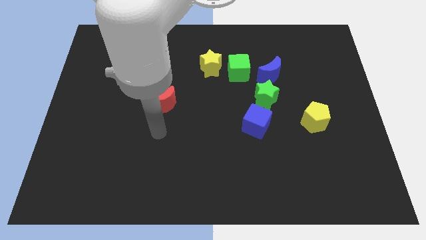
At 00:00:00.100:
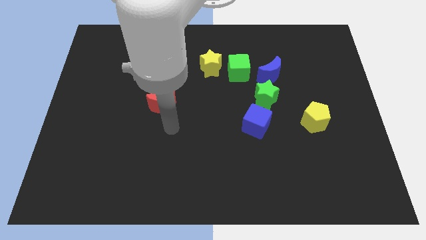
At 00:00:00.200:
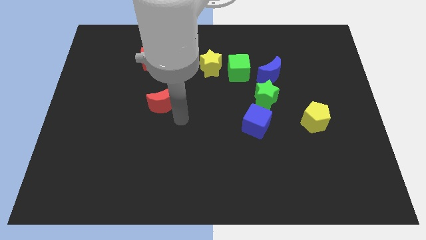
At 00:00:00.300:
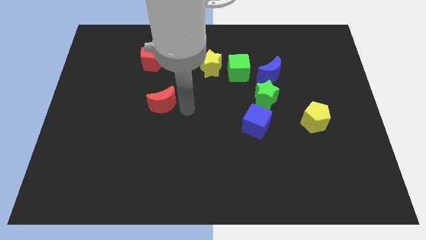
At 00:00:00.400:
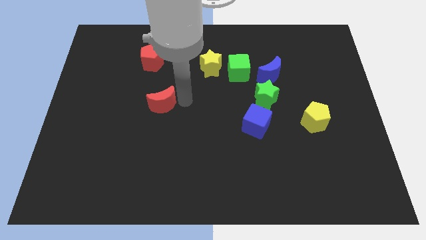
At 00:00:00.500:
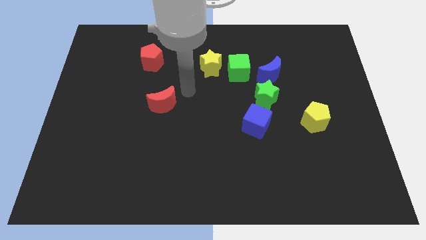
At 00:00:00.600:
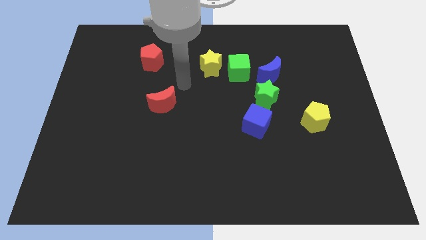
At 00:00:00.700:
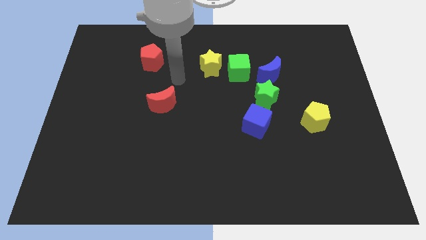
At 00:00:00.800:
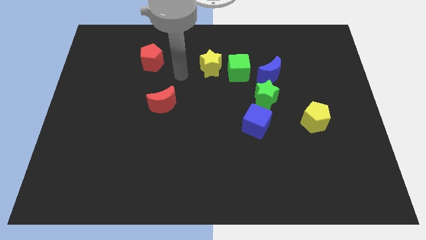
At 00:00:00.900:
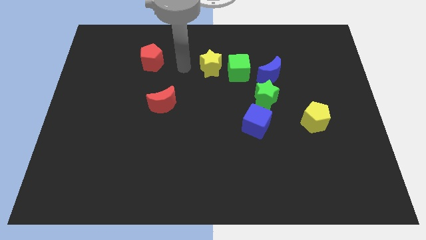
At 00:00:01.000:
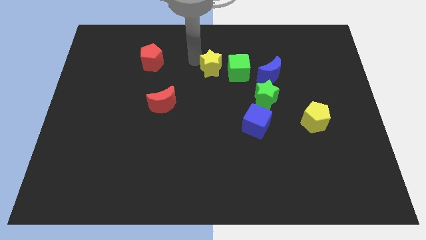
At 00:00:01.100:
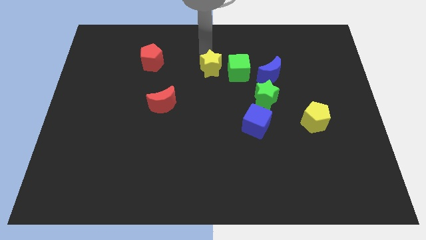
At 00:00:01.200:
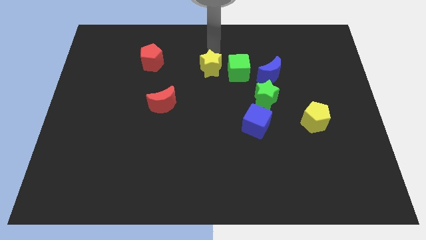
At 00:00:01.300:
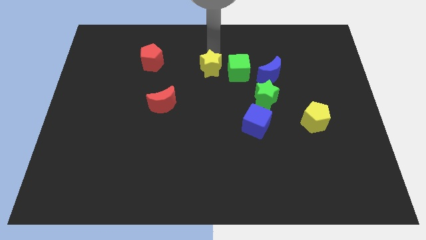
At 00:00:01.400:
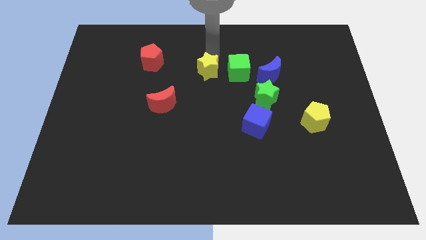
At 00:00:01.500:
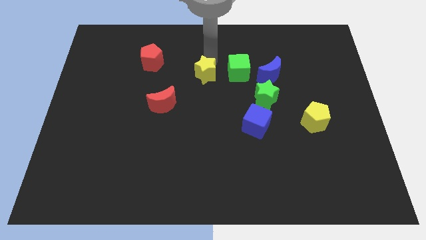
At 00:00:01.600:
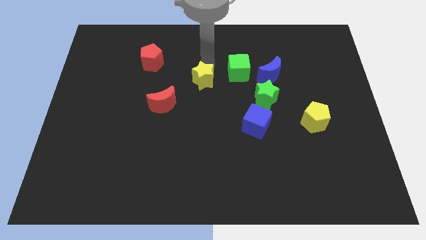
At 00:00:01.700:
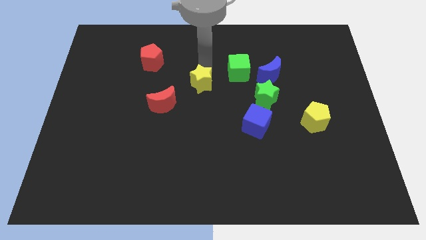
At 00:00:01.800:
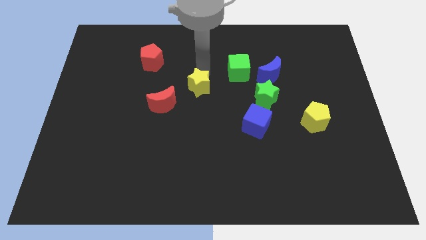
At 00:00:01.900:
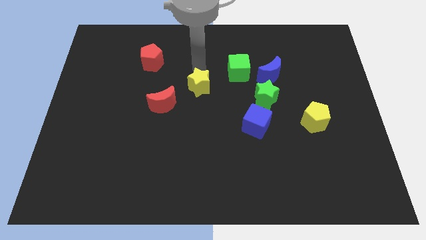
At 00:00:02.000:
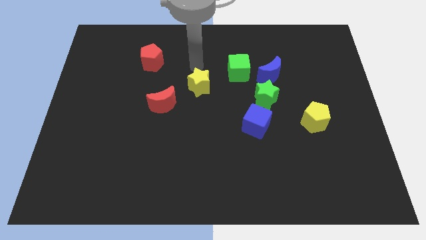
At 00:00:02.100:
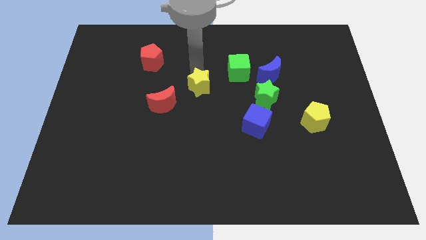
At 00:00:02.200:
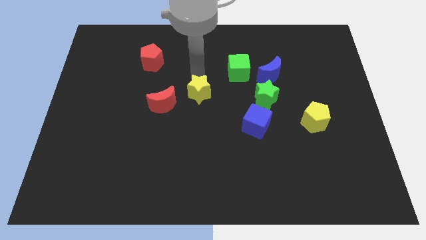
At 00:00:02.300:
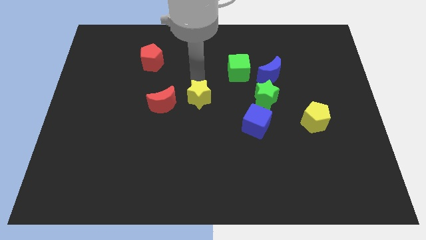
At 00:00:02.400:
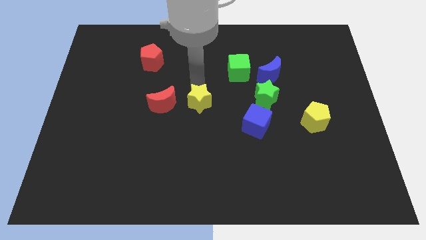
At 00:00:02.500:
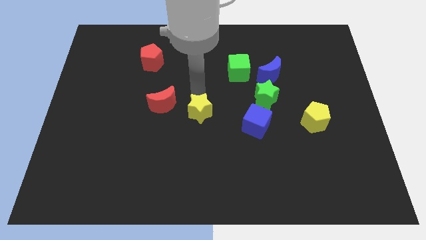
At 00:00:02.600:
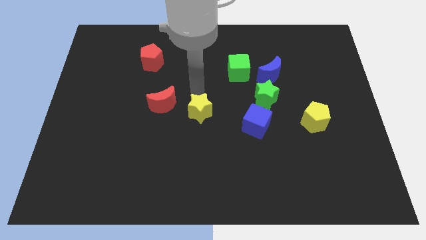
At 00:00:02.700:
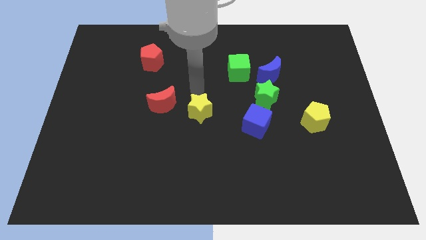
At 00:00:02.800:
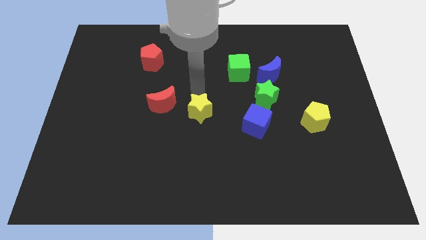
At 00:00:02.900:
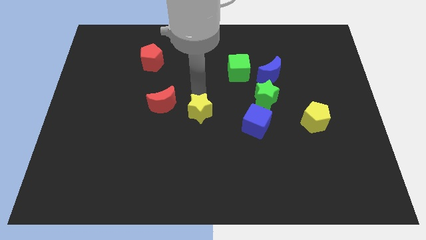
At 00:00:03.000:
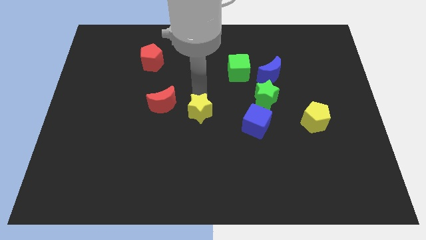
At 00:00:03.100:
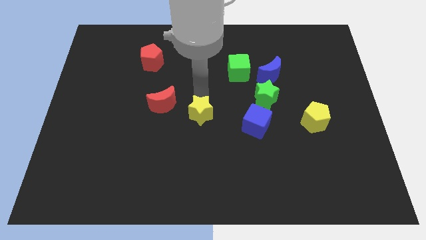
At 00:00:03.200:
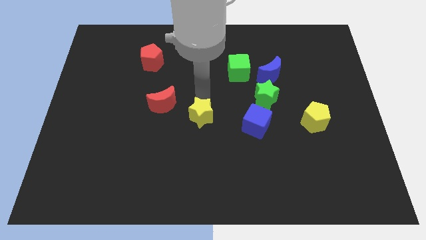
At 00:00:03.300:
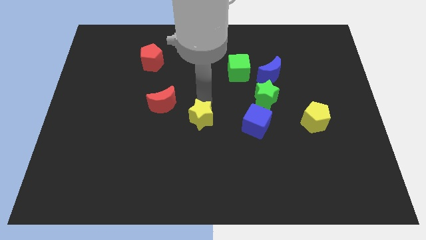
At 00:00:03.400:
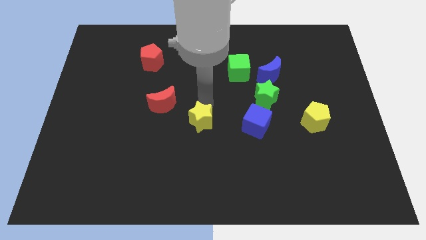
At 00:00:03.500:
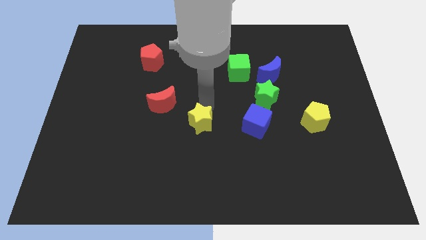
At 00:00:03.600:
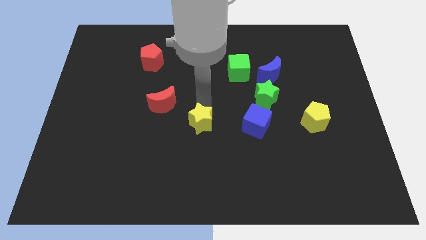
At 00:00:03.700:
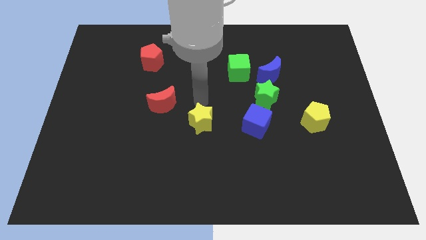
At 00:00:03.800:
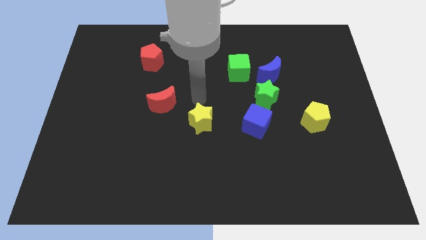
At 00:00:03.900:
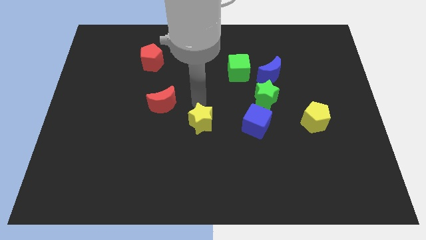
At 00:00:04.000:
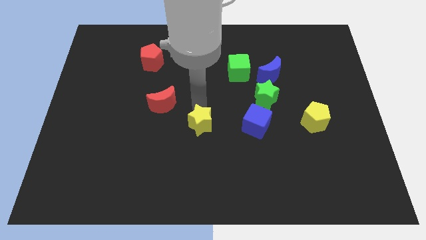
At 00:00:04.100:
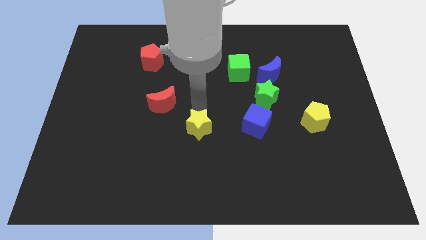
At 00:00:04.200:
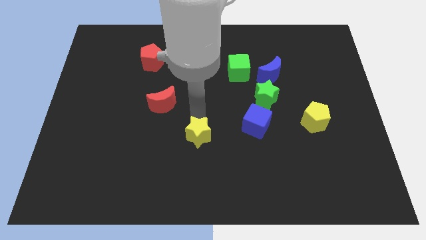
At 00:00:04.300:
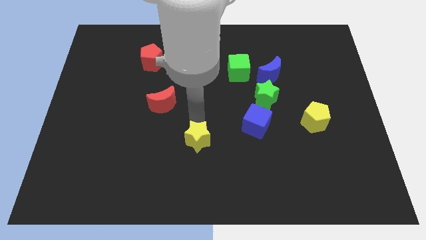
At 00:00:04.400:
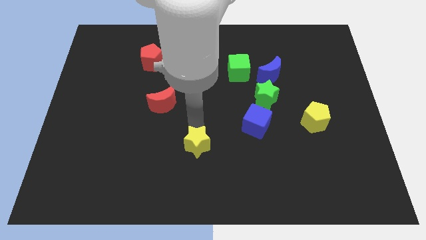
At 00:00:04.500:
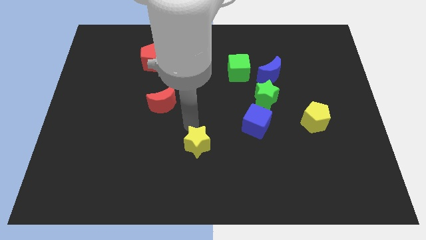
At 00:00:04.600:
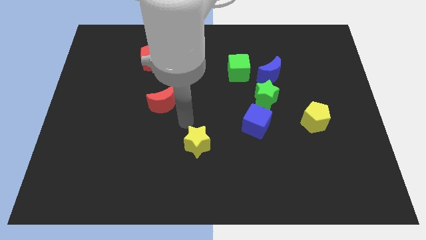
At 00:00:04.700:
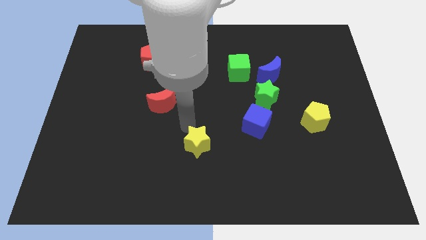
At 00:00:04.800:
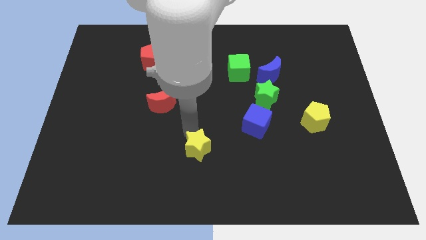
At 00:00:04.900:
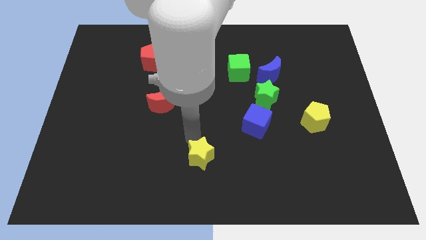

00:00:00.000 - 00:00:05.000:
push the yellow star to the bottom side

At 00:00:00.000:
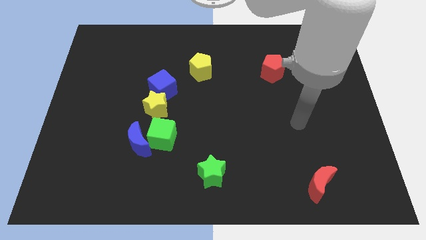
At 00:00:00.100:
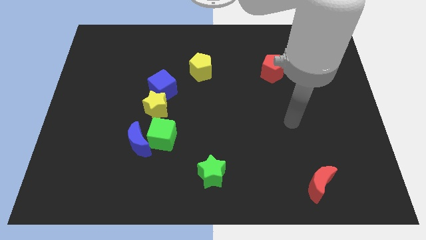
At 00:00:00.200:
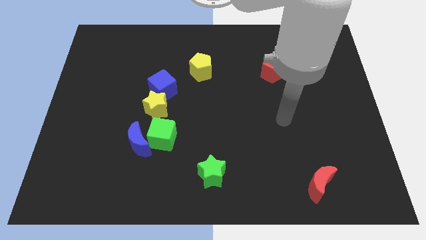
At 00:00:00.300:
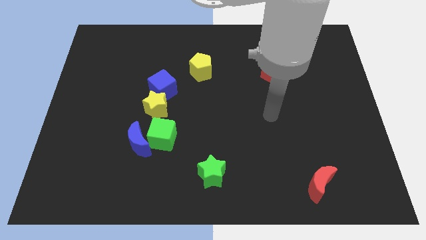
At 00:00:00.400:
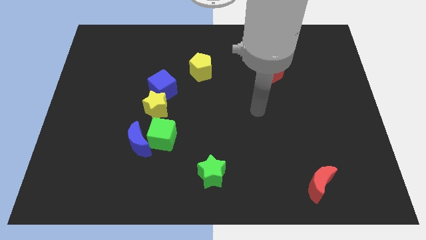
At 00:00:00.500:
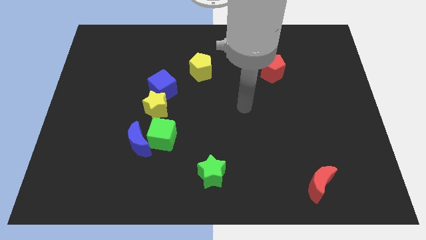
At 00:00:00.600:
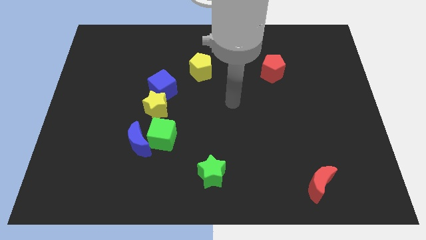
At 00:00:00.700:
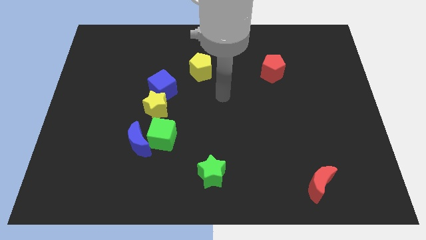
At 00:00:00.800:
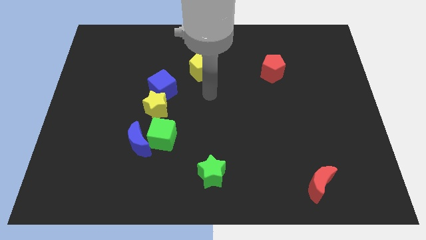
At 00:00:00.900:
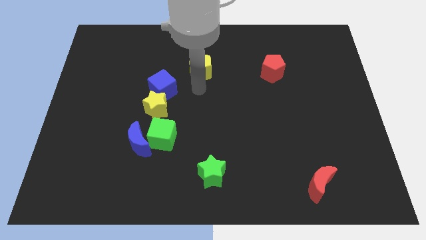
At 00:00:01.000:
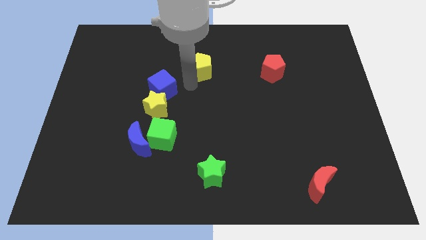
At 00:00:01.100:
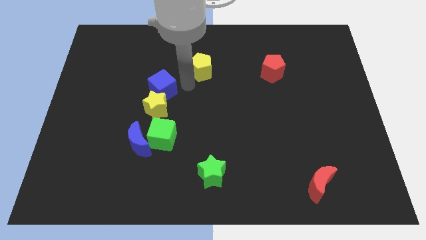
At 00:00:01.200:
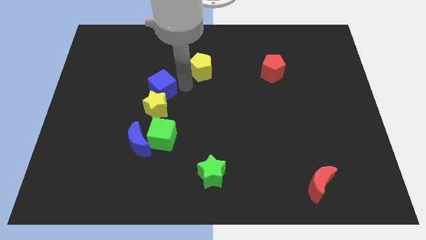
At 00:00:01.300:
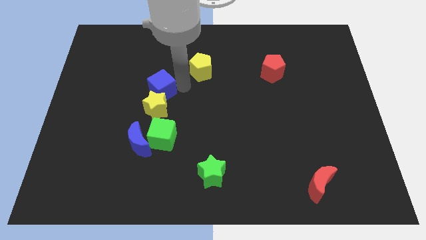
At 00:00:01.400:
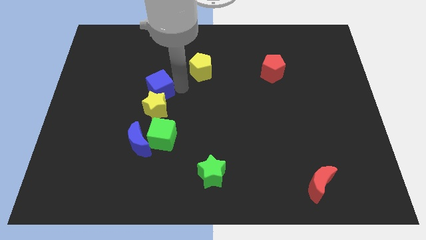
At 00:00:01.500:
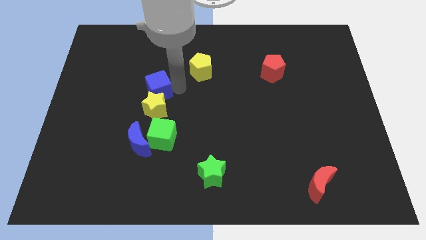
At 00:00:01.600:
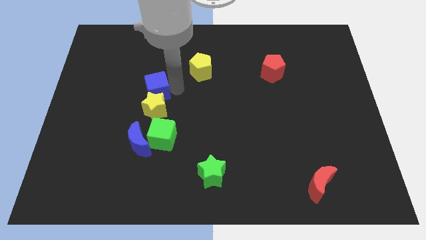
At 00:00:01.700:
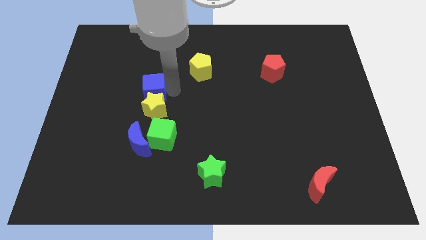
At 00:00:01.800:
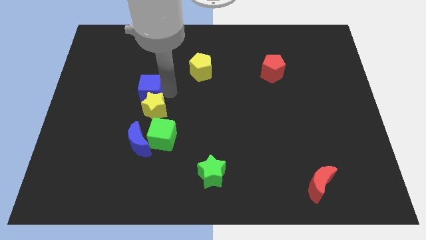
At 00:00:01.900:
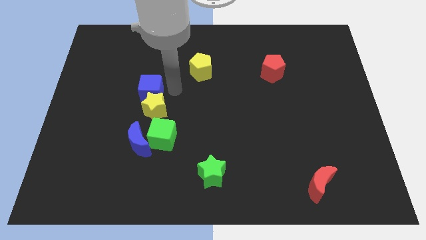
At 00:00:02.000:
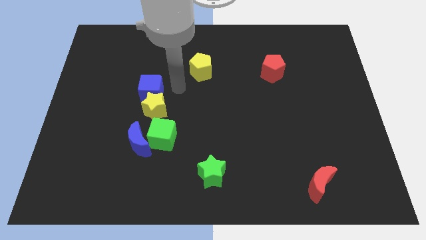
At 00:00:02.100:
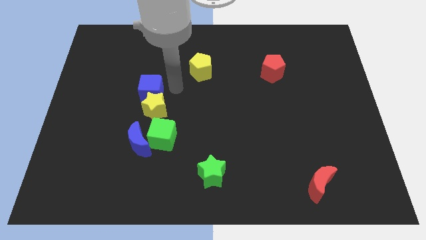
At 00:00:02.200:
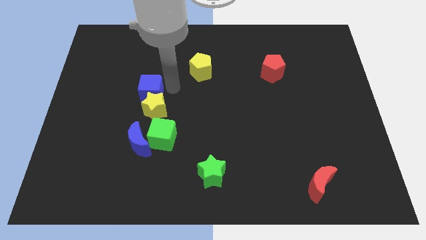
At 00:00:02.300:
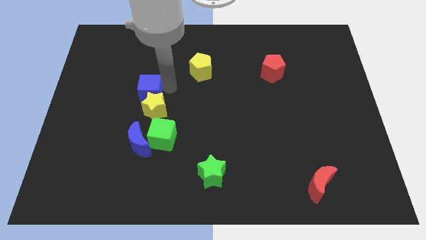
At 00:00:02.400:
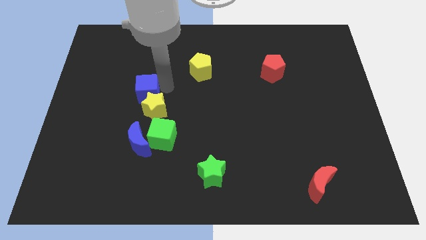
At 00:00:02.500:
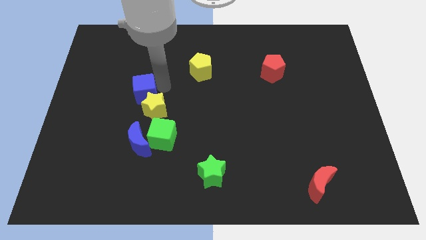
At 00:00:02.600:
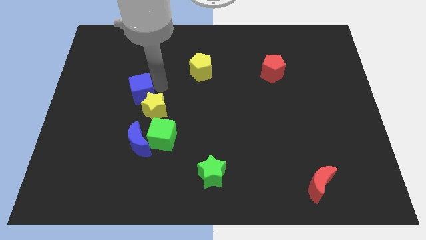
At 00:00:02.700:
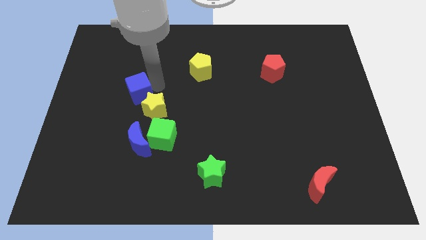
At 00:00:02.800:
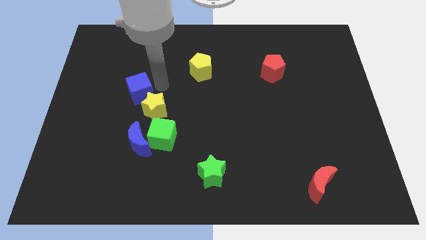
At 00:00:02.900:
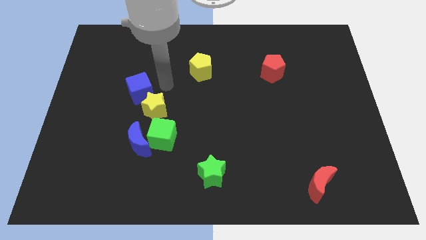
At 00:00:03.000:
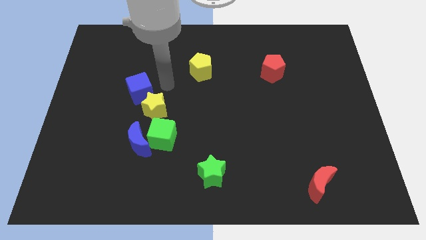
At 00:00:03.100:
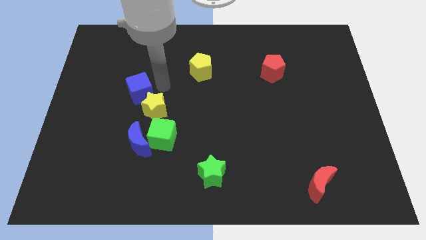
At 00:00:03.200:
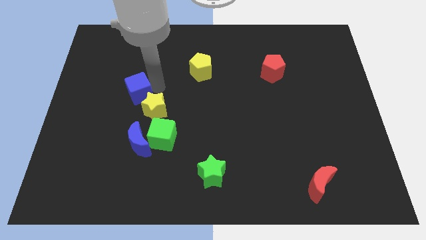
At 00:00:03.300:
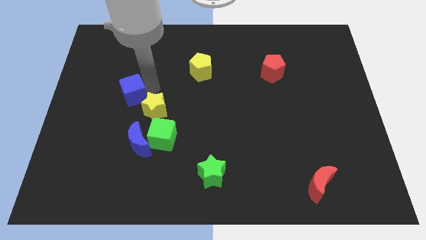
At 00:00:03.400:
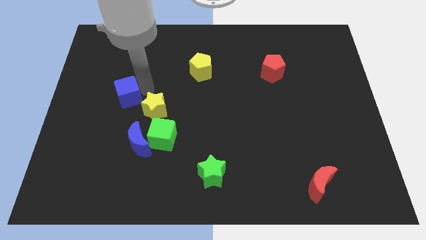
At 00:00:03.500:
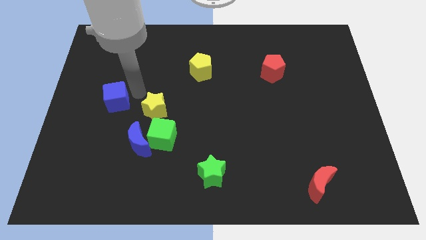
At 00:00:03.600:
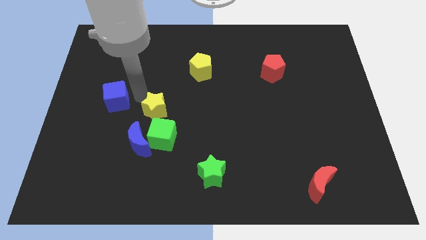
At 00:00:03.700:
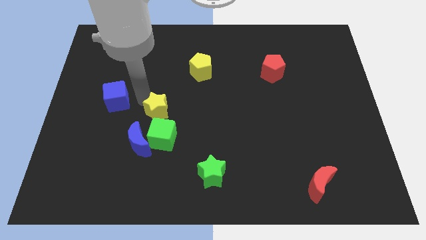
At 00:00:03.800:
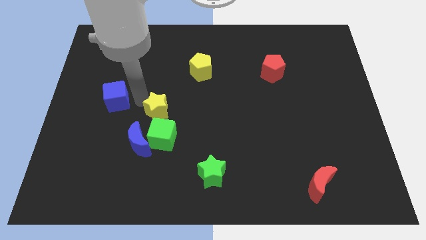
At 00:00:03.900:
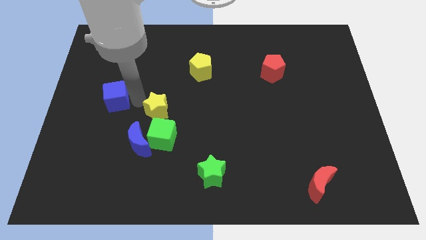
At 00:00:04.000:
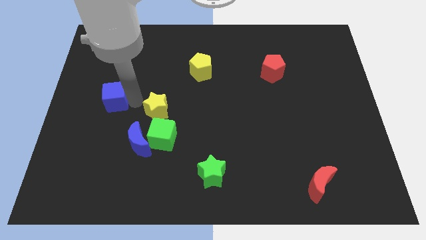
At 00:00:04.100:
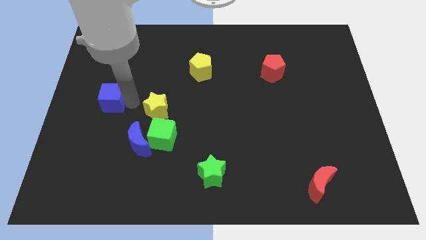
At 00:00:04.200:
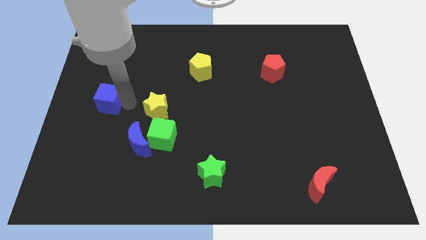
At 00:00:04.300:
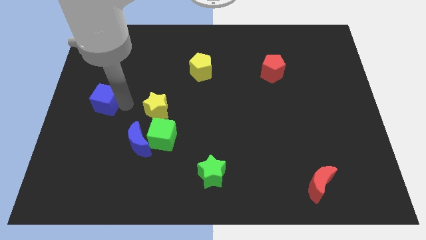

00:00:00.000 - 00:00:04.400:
move the blue cube to the left side
